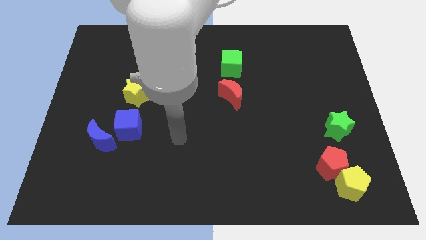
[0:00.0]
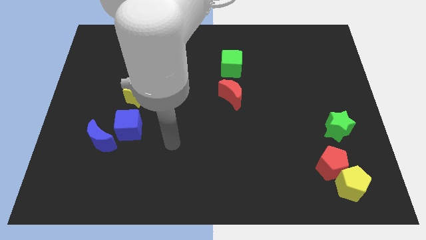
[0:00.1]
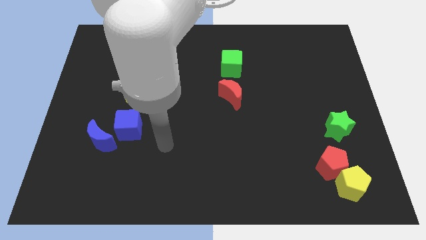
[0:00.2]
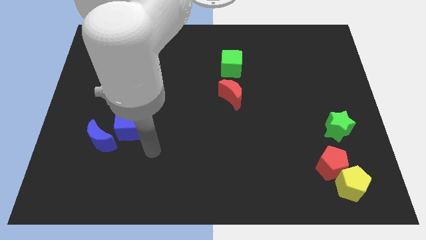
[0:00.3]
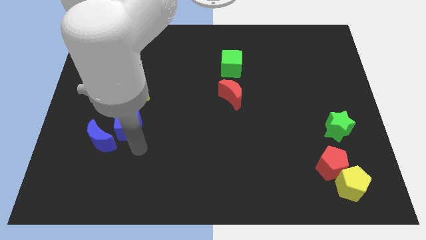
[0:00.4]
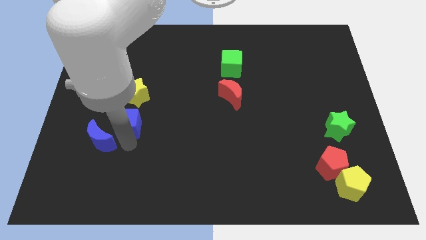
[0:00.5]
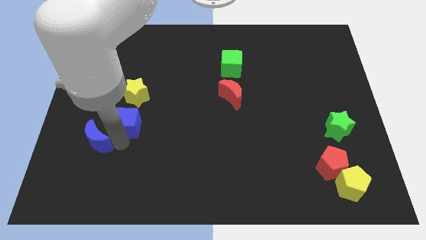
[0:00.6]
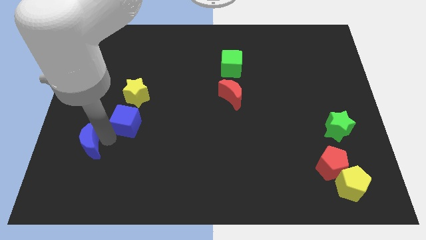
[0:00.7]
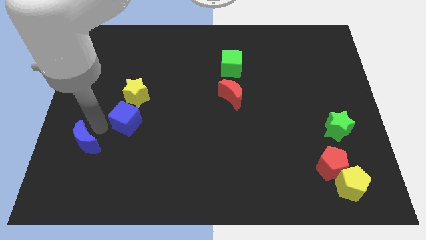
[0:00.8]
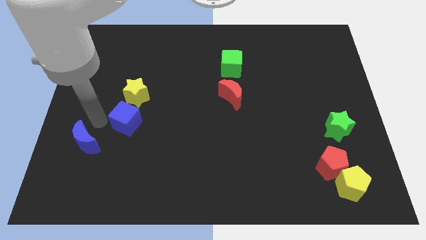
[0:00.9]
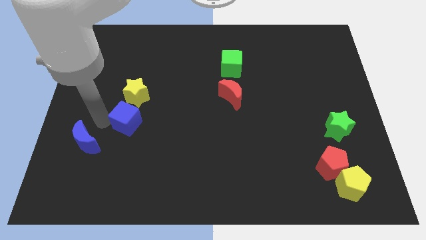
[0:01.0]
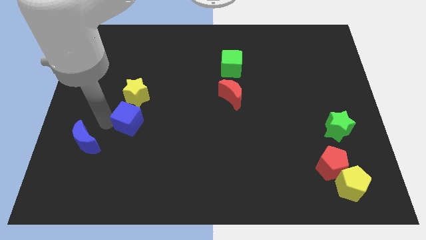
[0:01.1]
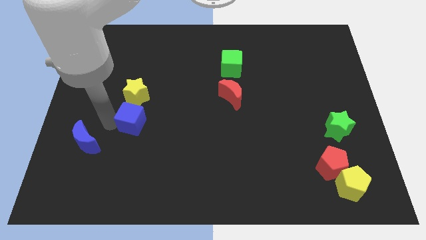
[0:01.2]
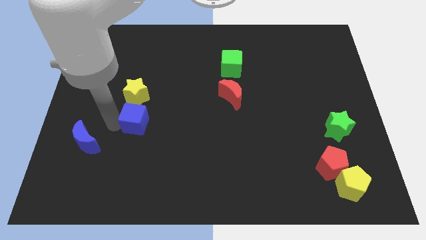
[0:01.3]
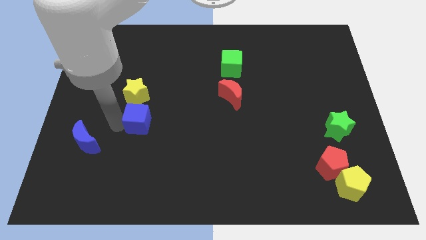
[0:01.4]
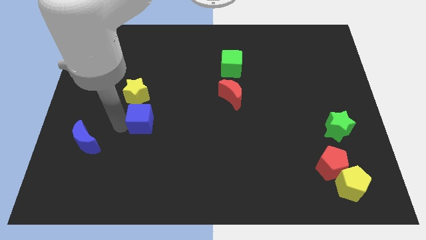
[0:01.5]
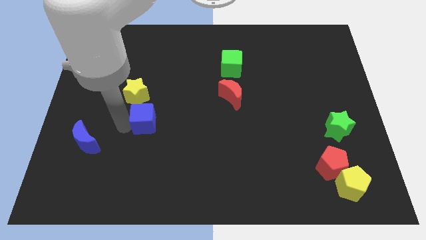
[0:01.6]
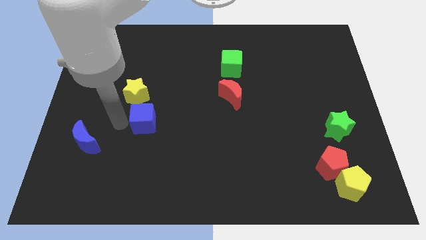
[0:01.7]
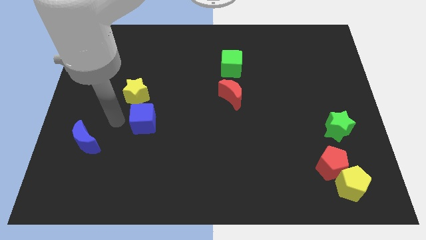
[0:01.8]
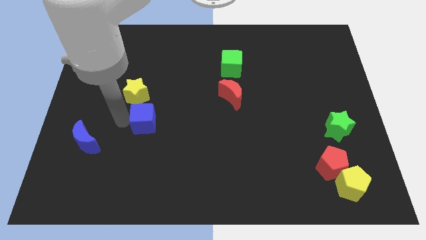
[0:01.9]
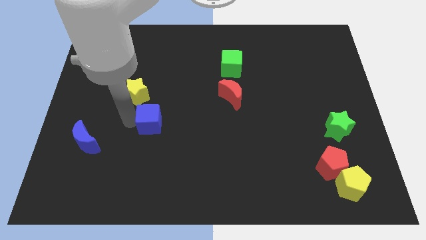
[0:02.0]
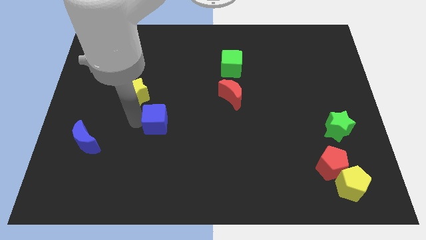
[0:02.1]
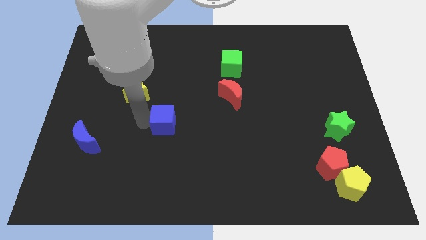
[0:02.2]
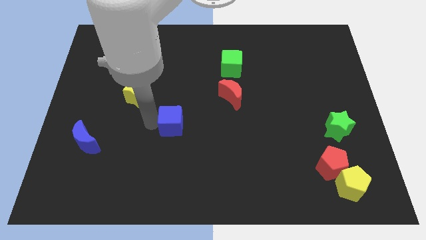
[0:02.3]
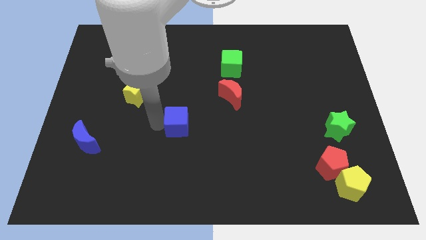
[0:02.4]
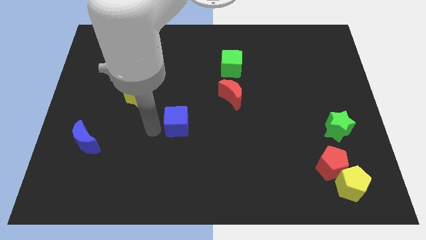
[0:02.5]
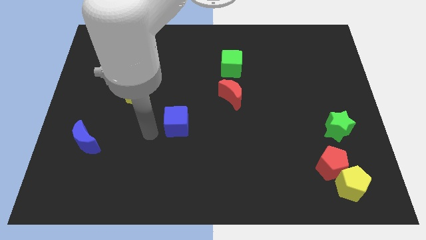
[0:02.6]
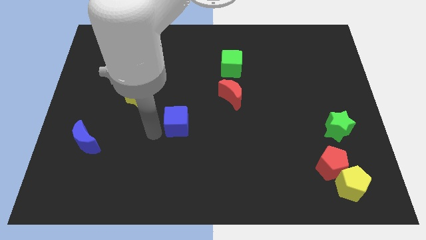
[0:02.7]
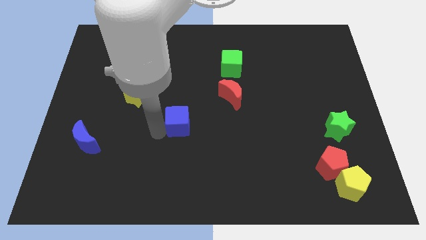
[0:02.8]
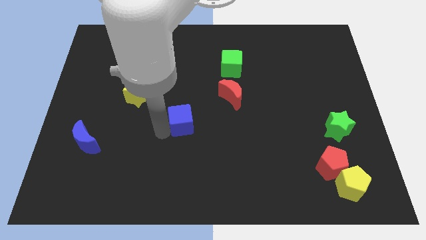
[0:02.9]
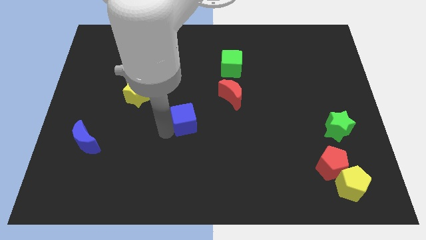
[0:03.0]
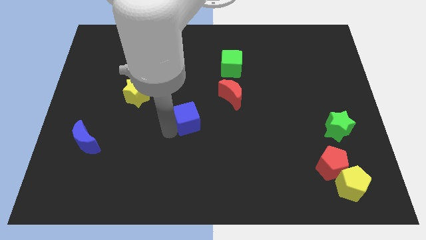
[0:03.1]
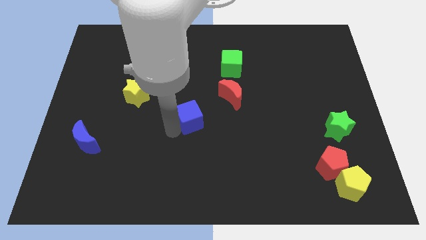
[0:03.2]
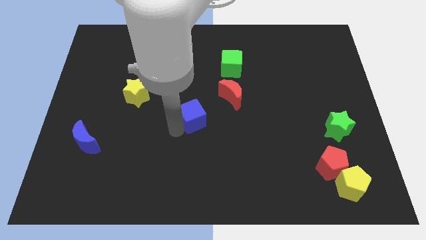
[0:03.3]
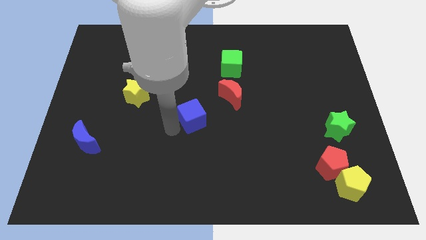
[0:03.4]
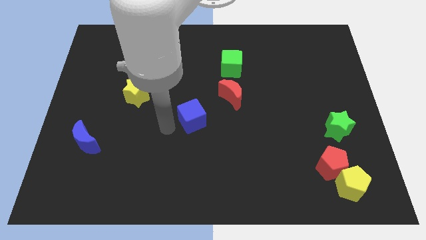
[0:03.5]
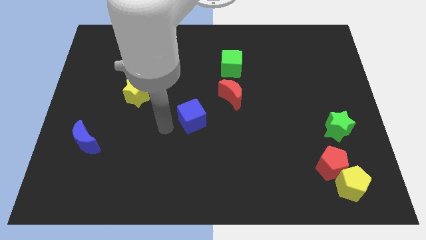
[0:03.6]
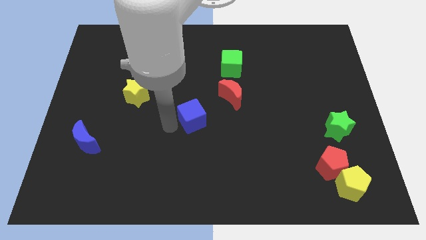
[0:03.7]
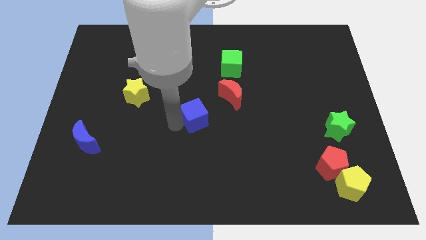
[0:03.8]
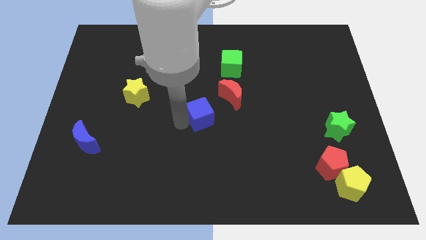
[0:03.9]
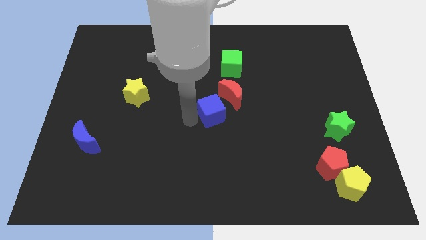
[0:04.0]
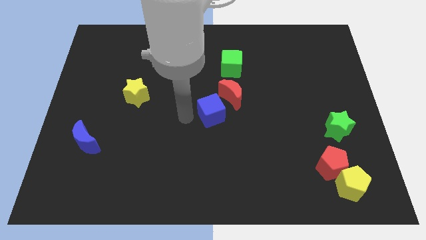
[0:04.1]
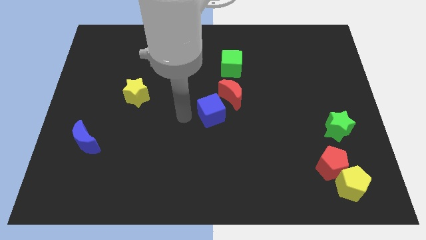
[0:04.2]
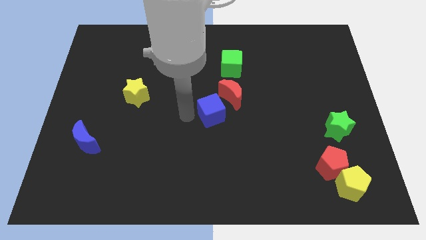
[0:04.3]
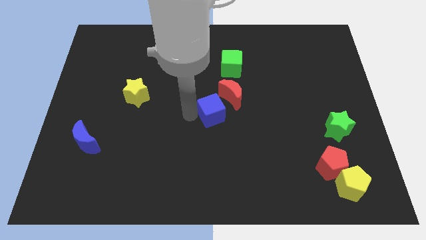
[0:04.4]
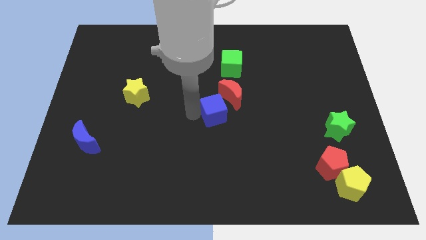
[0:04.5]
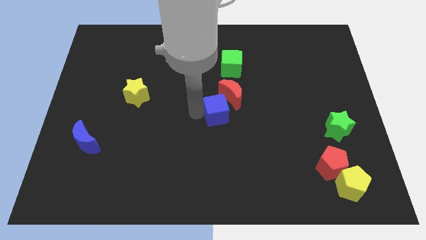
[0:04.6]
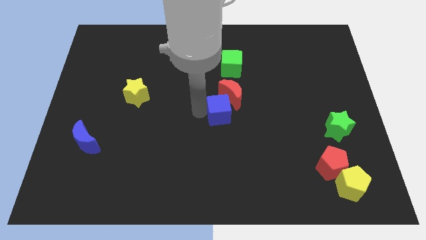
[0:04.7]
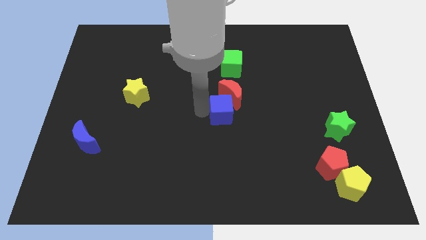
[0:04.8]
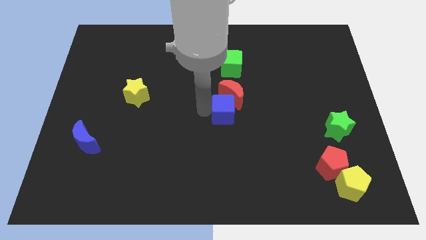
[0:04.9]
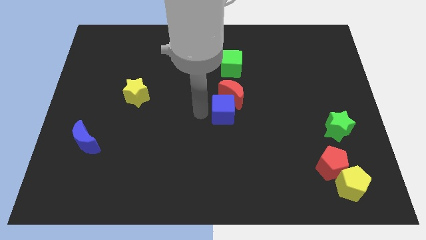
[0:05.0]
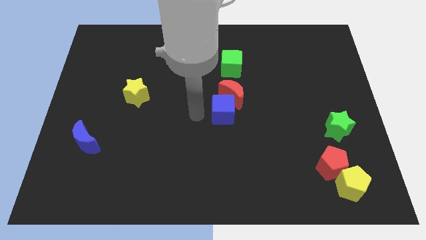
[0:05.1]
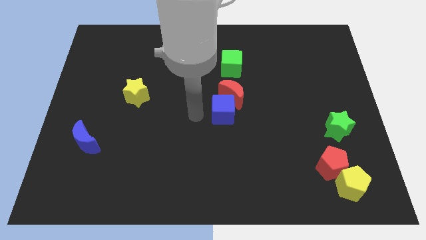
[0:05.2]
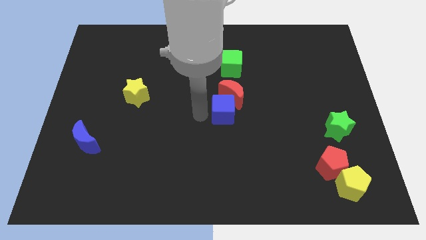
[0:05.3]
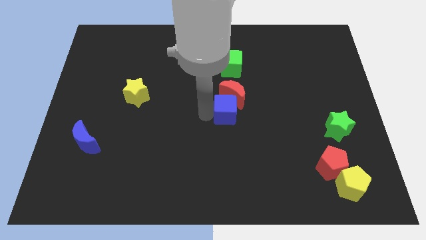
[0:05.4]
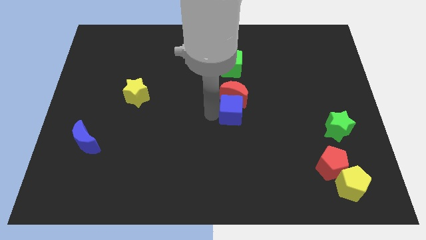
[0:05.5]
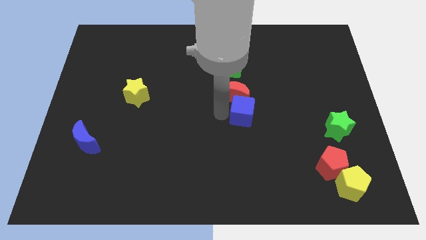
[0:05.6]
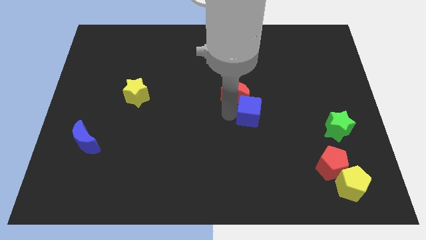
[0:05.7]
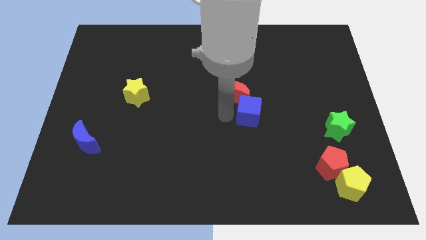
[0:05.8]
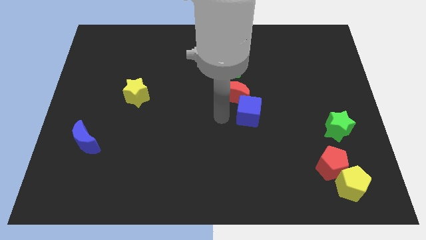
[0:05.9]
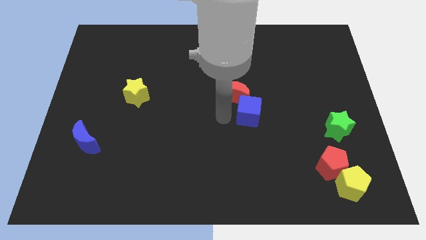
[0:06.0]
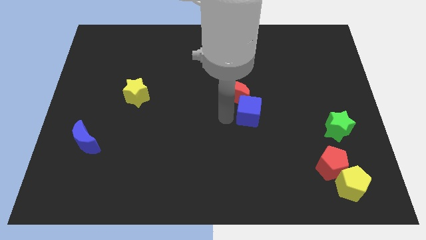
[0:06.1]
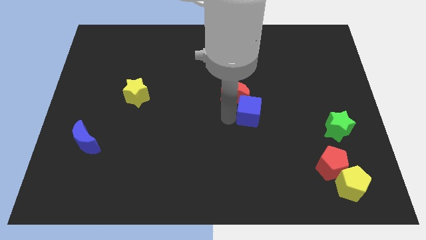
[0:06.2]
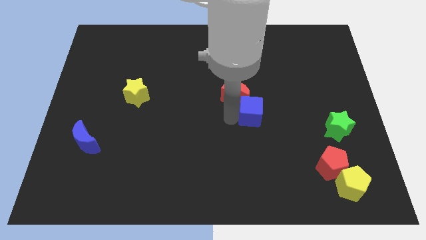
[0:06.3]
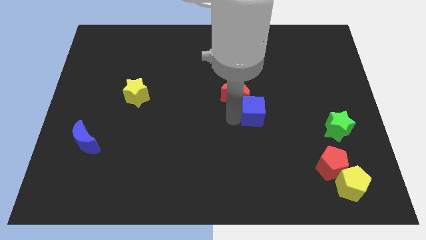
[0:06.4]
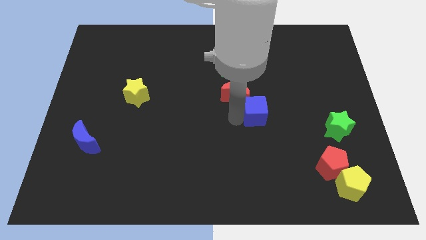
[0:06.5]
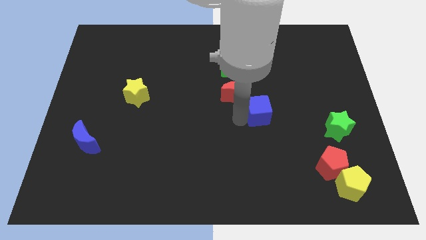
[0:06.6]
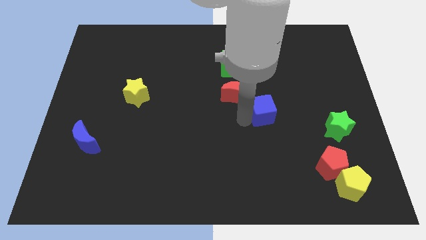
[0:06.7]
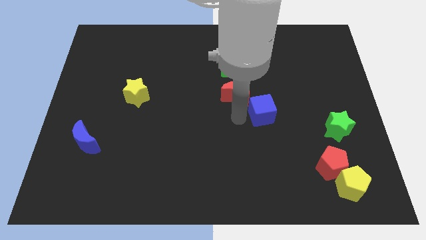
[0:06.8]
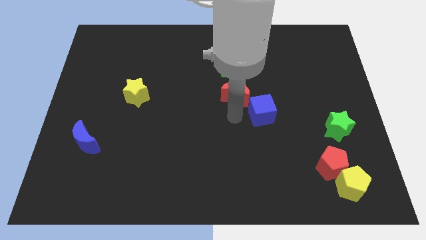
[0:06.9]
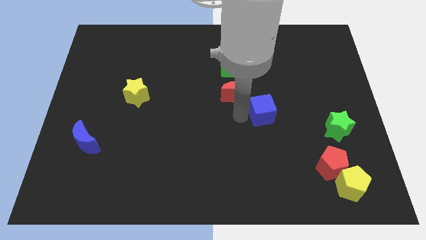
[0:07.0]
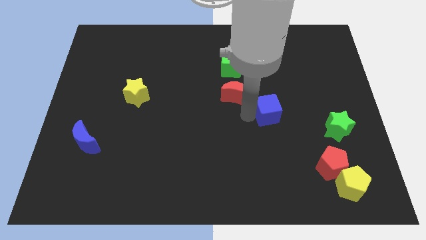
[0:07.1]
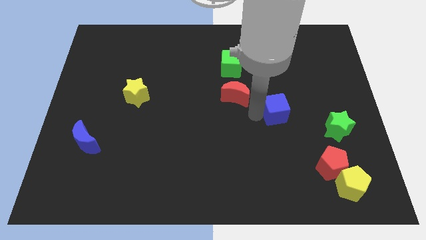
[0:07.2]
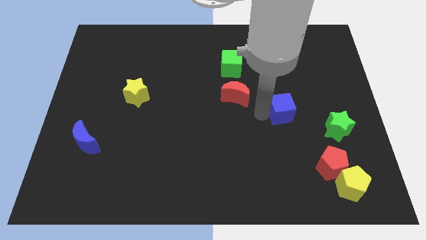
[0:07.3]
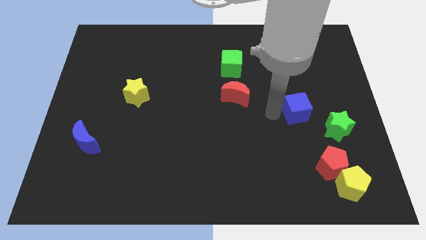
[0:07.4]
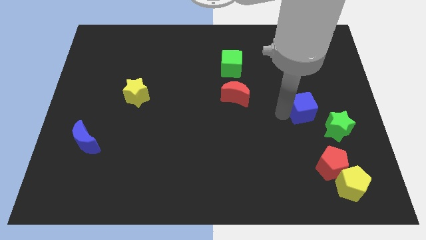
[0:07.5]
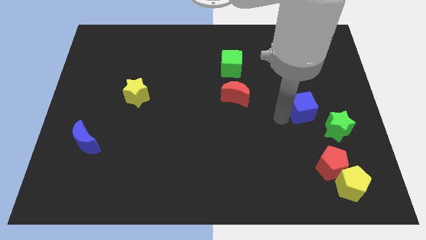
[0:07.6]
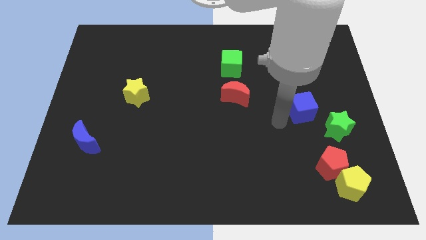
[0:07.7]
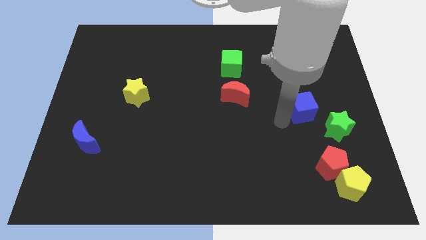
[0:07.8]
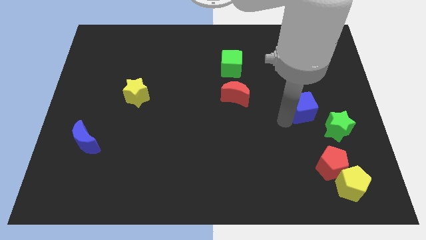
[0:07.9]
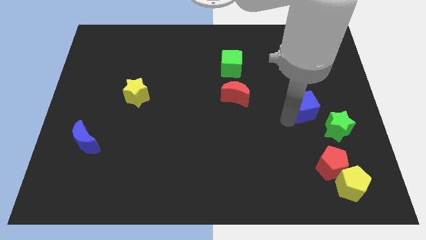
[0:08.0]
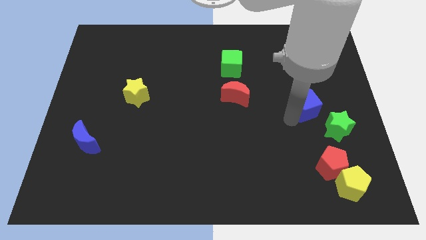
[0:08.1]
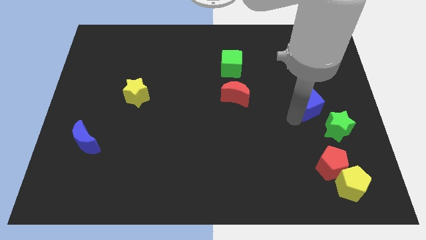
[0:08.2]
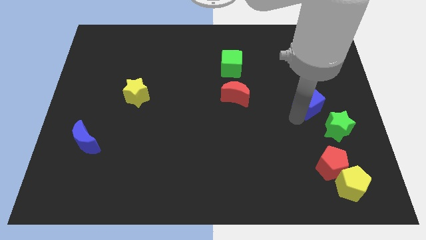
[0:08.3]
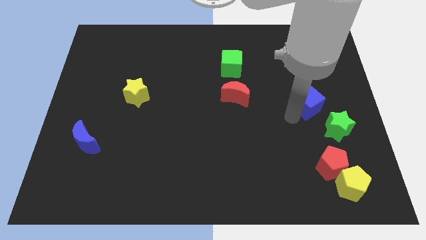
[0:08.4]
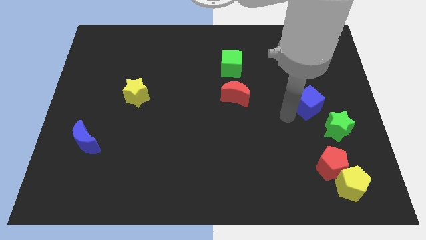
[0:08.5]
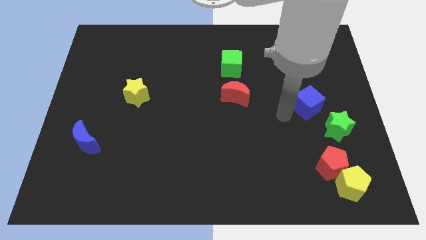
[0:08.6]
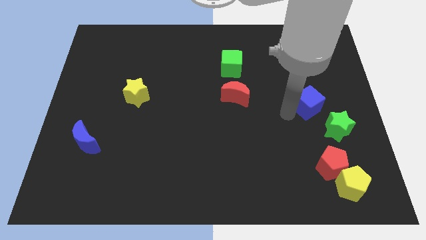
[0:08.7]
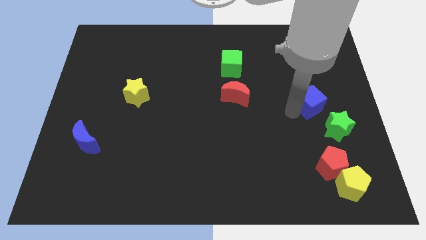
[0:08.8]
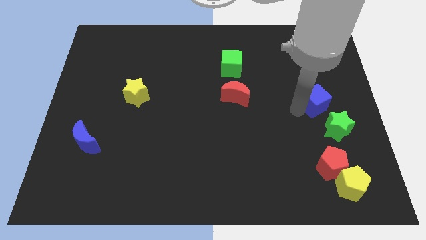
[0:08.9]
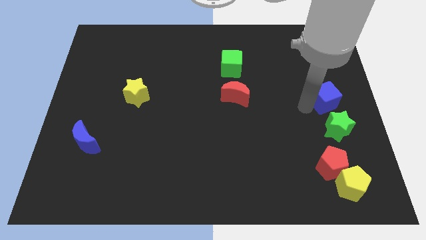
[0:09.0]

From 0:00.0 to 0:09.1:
put the blue cube to the right side
